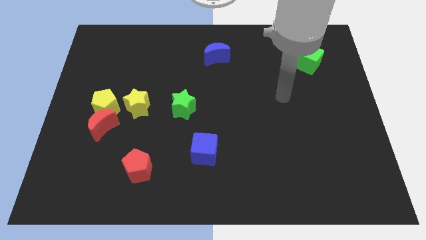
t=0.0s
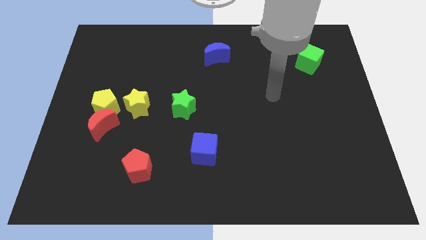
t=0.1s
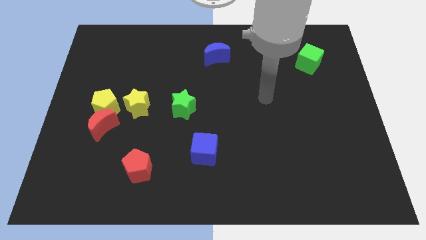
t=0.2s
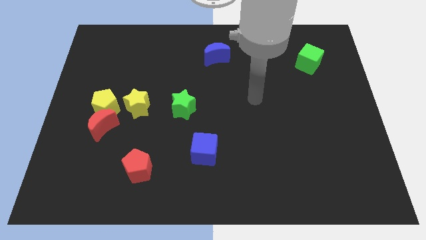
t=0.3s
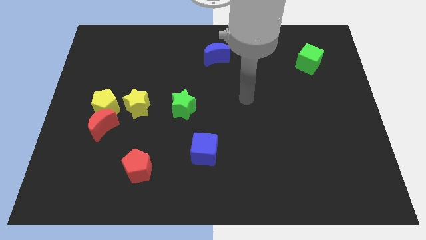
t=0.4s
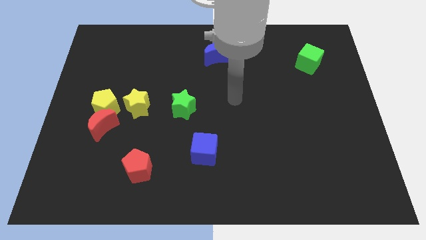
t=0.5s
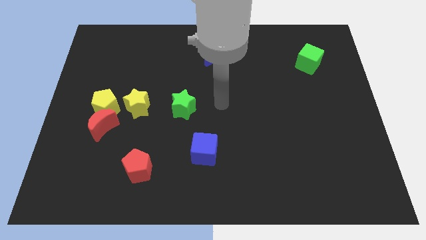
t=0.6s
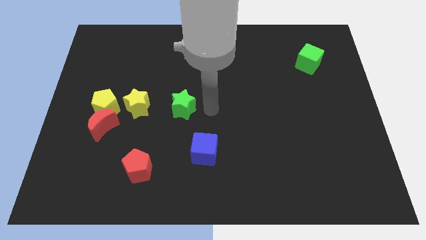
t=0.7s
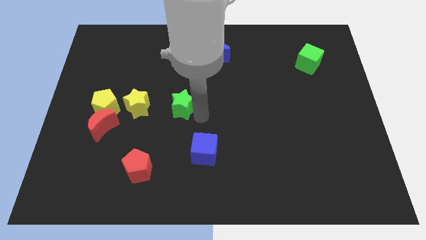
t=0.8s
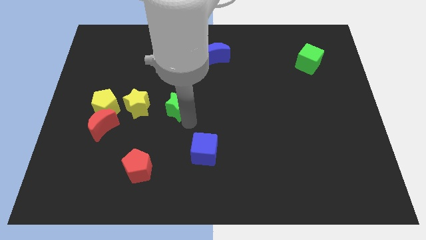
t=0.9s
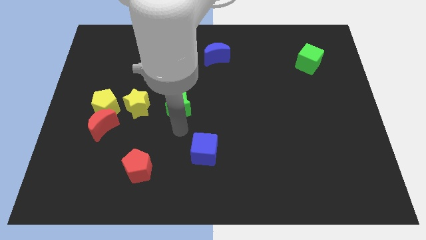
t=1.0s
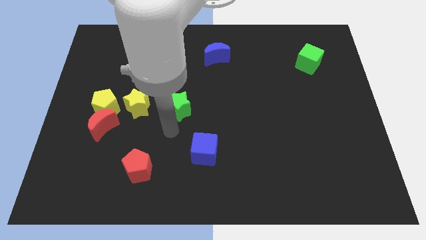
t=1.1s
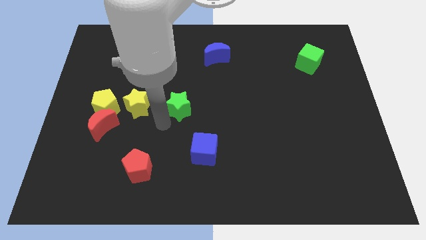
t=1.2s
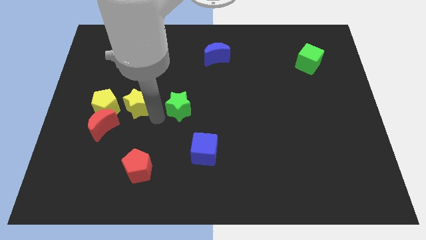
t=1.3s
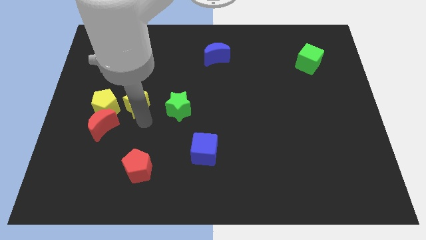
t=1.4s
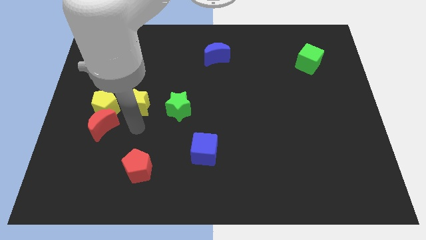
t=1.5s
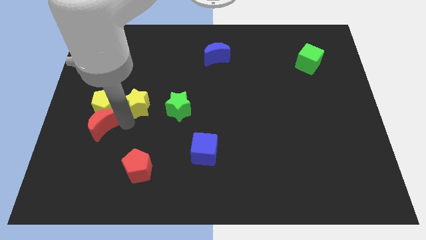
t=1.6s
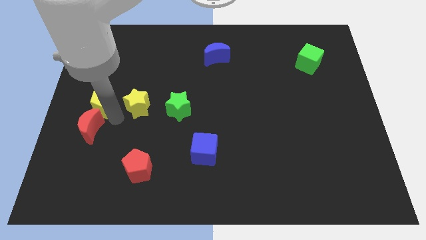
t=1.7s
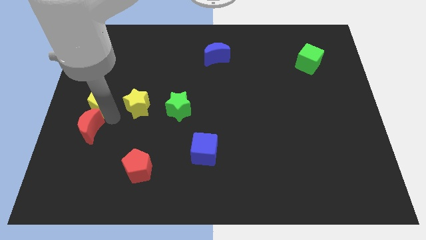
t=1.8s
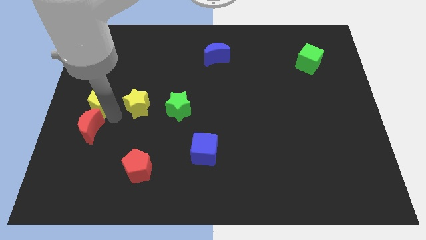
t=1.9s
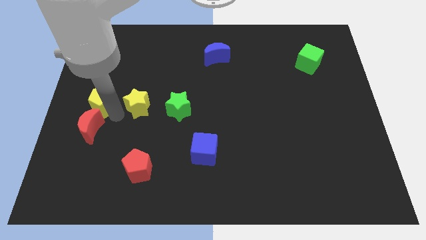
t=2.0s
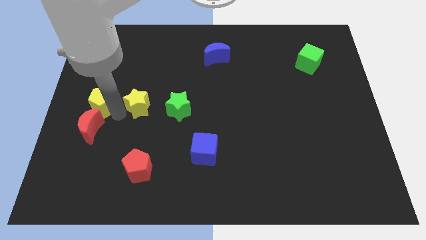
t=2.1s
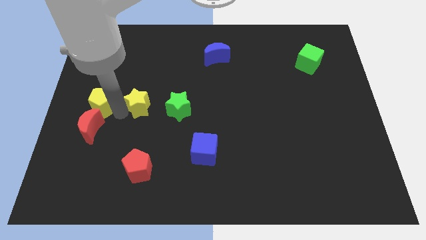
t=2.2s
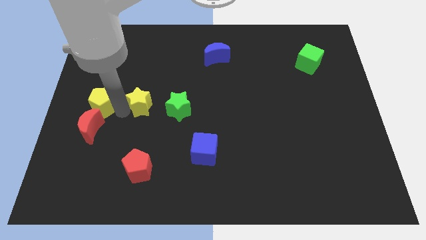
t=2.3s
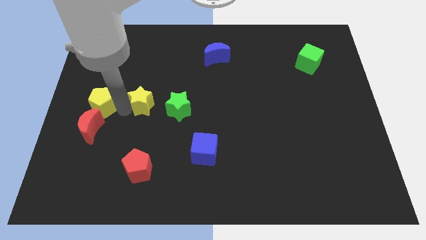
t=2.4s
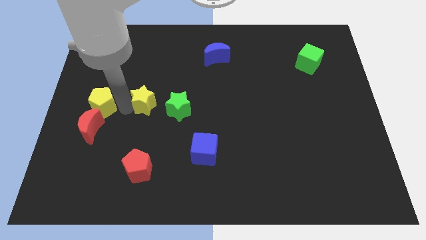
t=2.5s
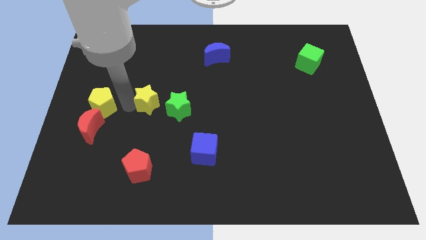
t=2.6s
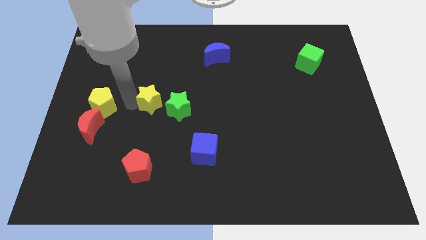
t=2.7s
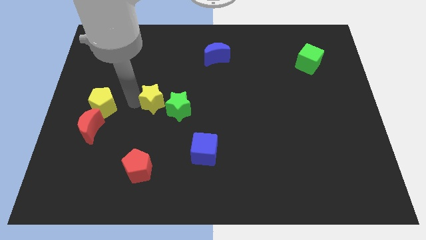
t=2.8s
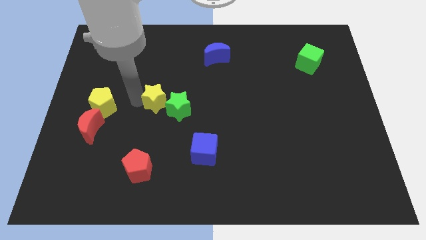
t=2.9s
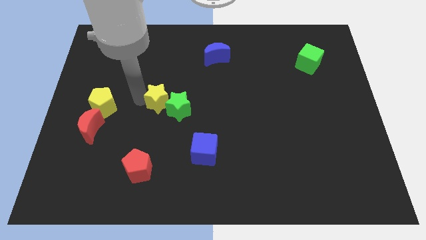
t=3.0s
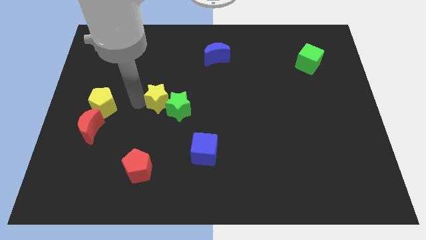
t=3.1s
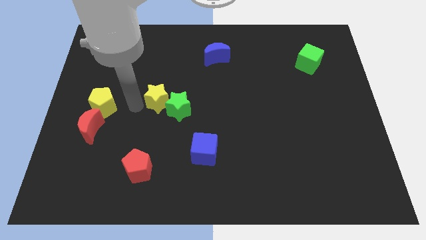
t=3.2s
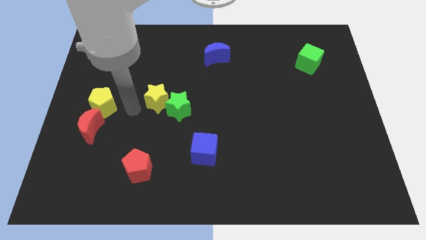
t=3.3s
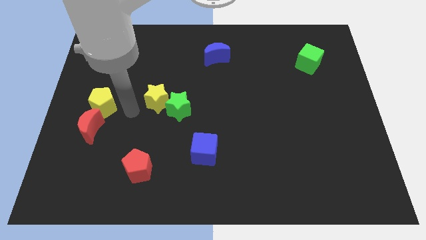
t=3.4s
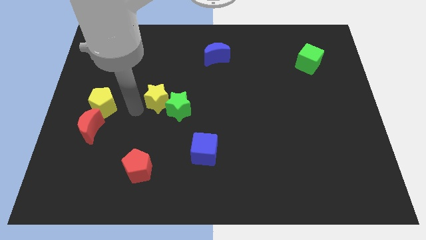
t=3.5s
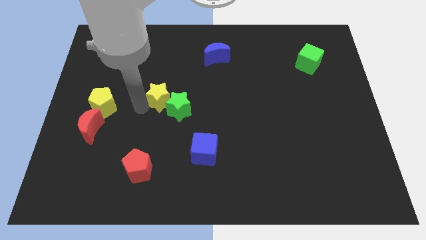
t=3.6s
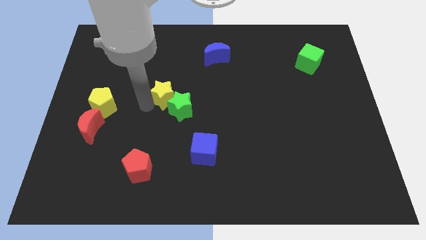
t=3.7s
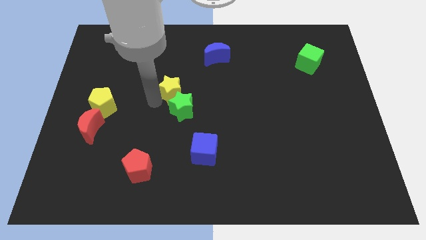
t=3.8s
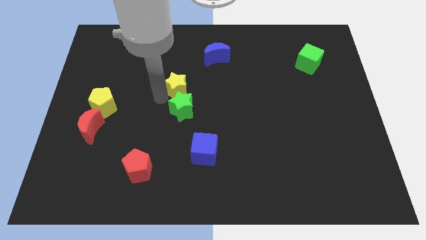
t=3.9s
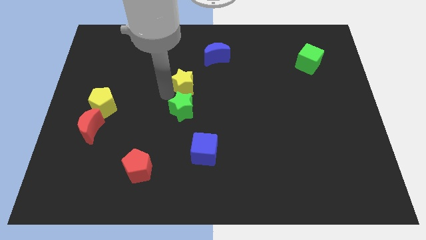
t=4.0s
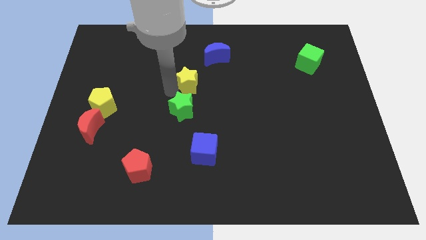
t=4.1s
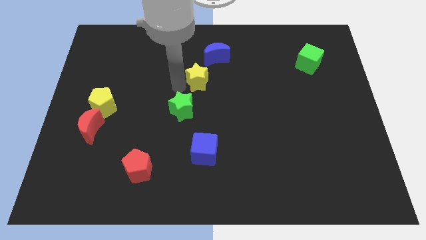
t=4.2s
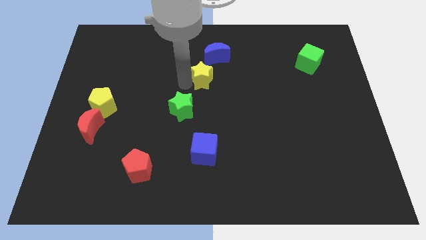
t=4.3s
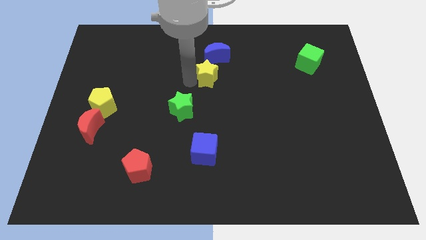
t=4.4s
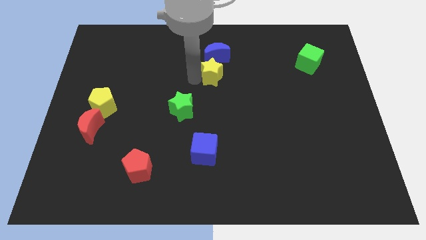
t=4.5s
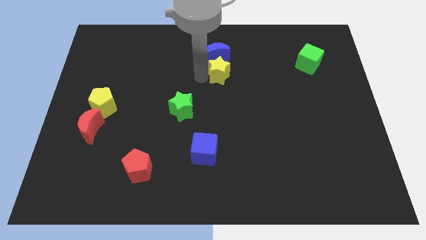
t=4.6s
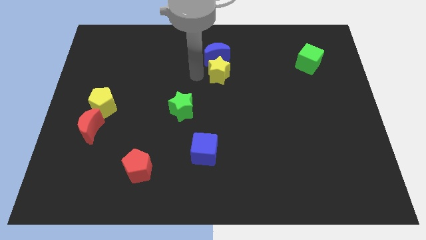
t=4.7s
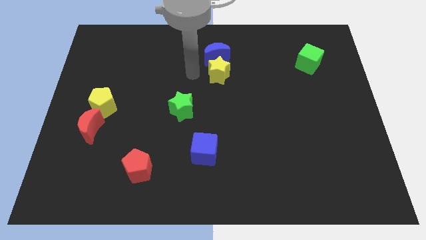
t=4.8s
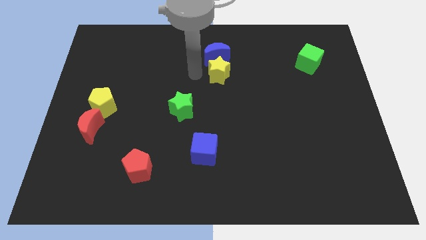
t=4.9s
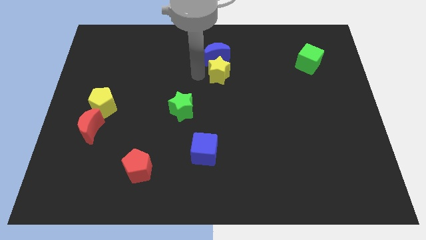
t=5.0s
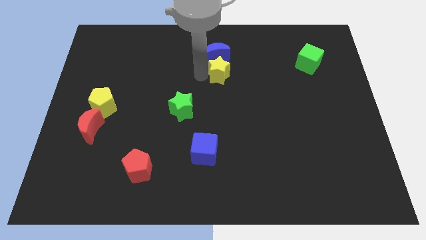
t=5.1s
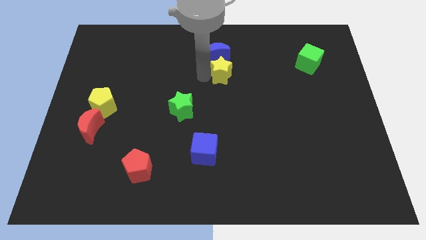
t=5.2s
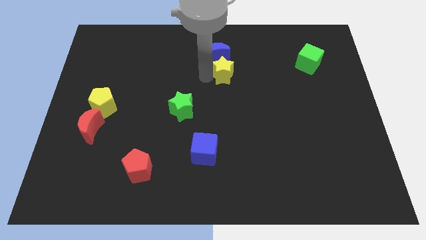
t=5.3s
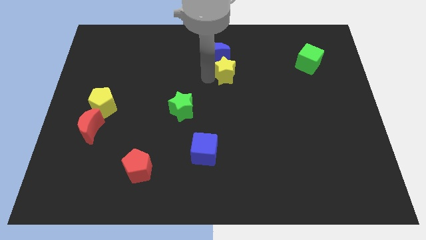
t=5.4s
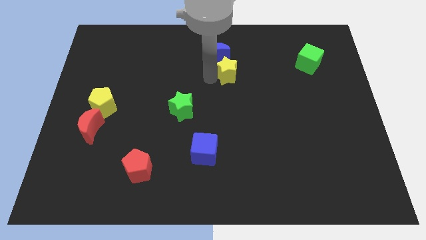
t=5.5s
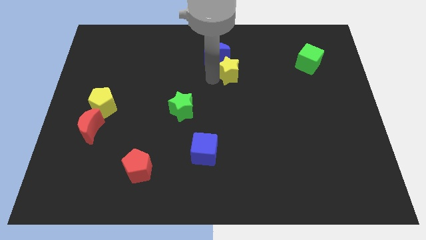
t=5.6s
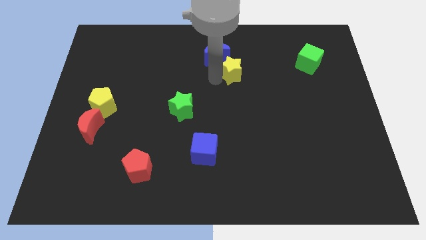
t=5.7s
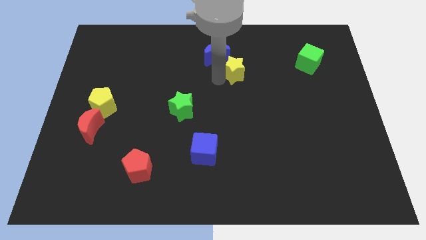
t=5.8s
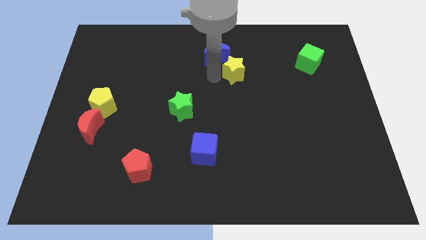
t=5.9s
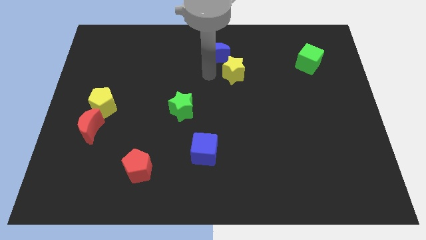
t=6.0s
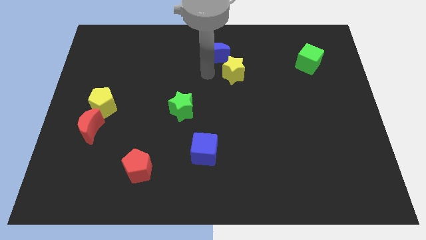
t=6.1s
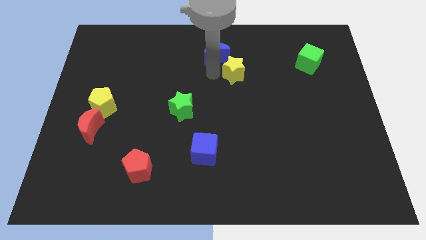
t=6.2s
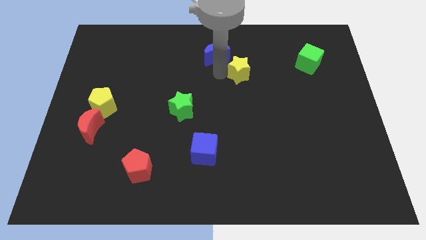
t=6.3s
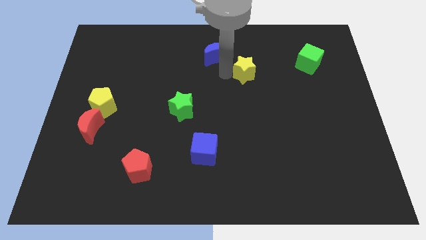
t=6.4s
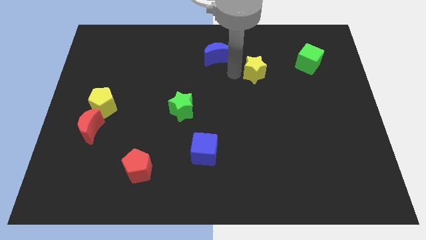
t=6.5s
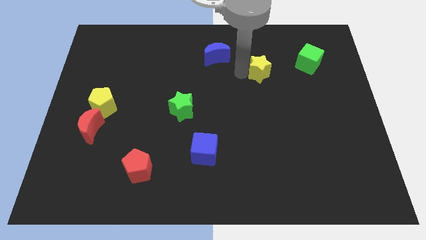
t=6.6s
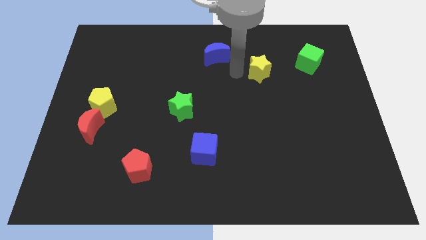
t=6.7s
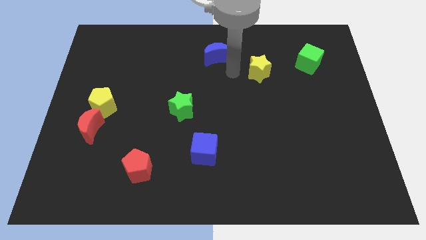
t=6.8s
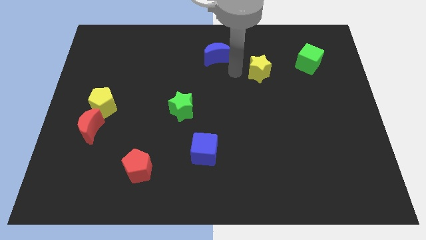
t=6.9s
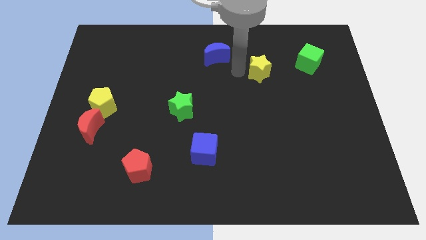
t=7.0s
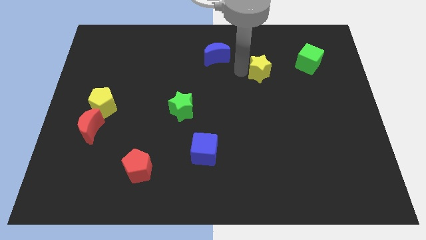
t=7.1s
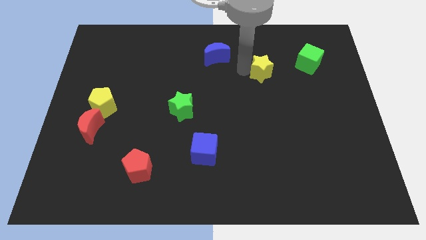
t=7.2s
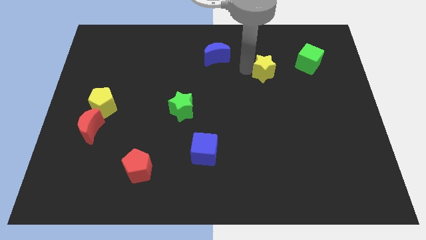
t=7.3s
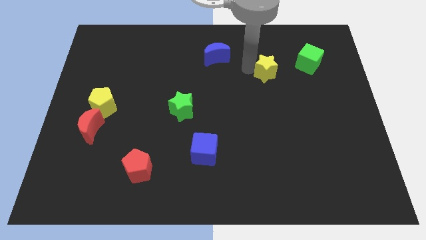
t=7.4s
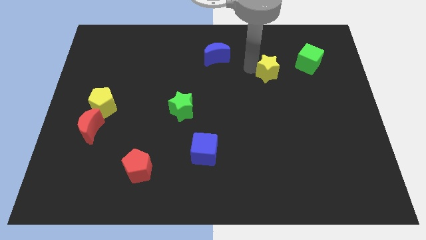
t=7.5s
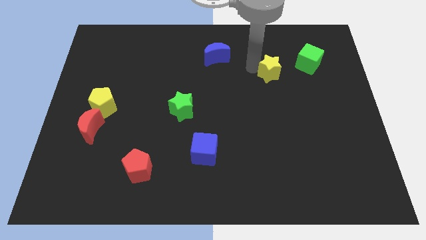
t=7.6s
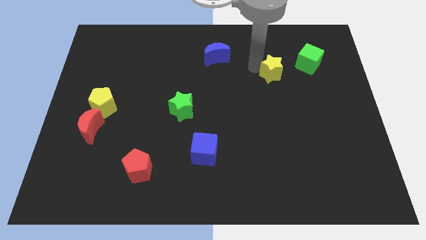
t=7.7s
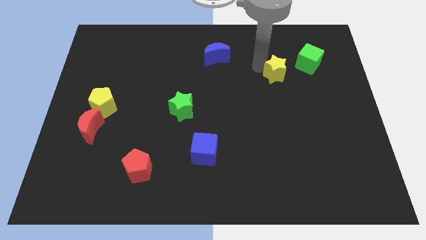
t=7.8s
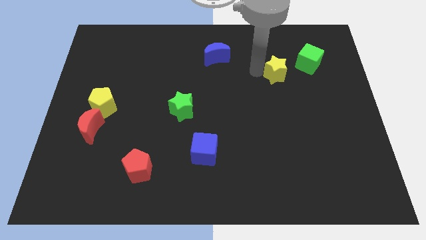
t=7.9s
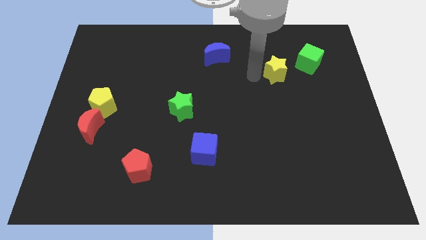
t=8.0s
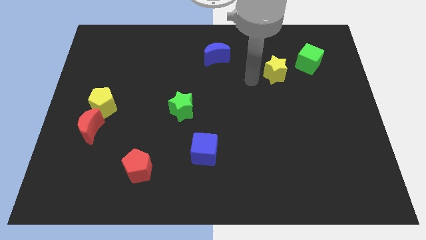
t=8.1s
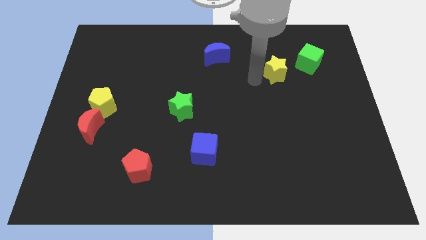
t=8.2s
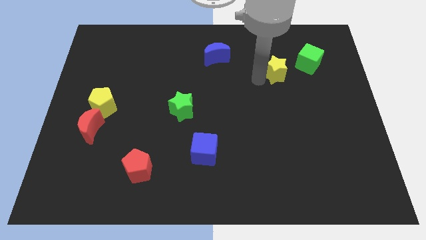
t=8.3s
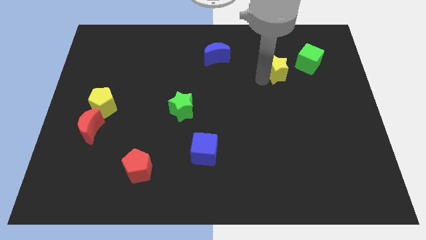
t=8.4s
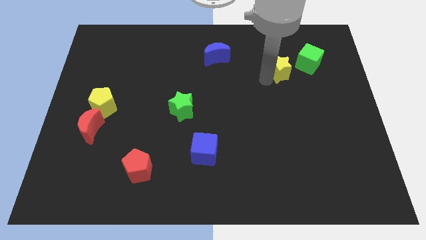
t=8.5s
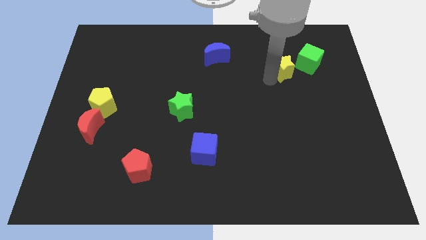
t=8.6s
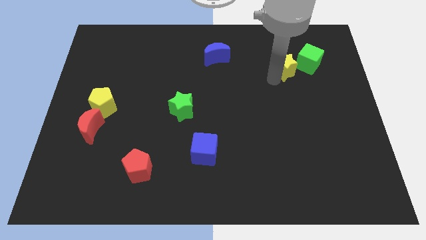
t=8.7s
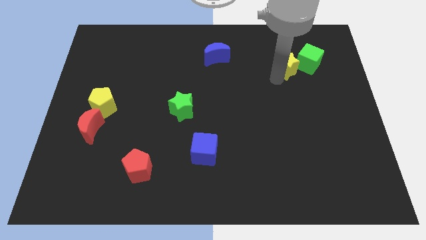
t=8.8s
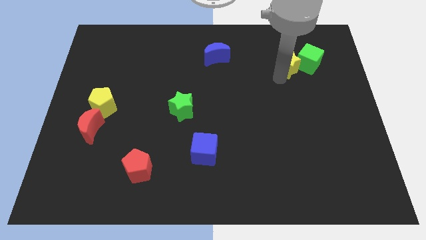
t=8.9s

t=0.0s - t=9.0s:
move the yellow star next to the green cube
